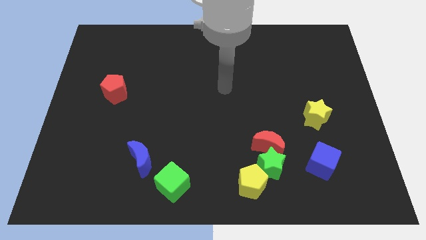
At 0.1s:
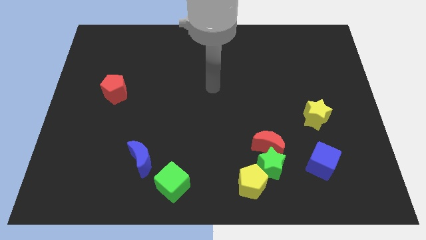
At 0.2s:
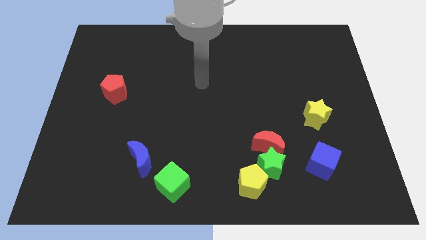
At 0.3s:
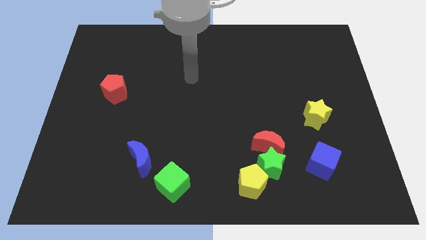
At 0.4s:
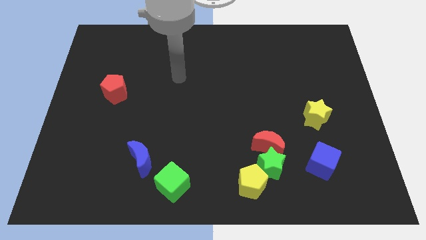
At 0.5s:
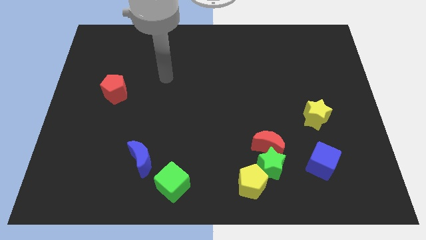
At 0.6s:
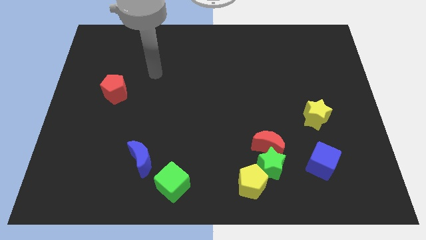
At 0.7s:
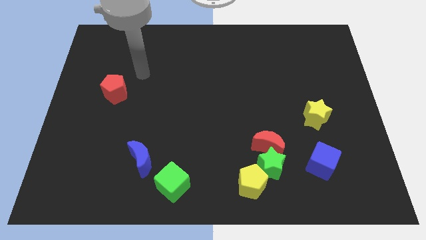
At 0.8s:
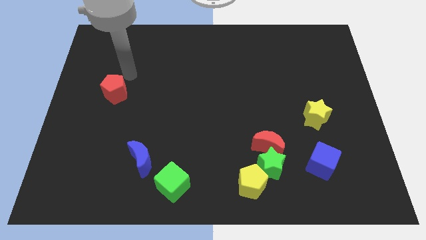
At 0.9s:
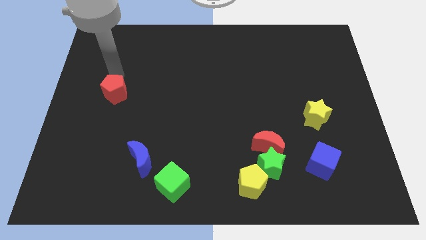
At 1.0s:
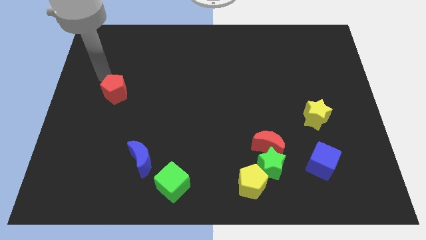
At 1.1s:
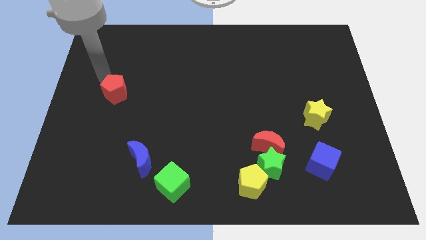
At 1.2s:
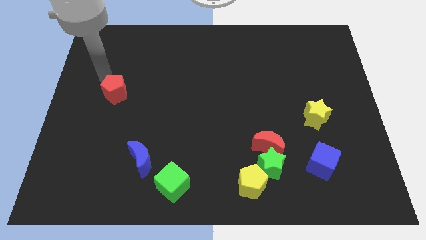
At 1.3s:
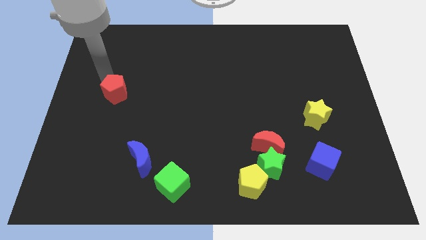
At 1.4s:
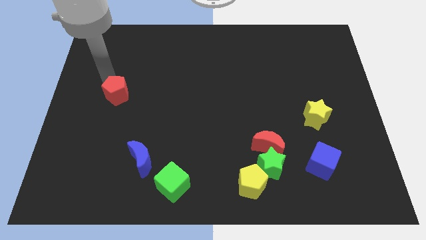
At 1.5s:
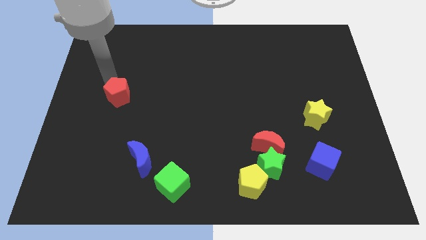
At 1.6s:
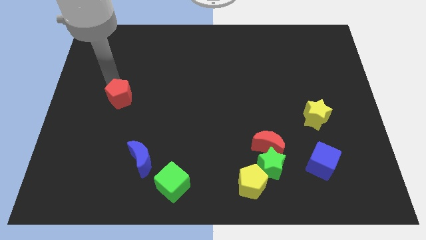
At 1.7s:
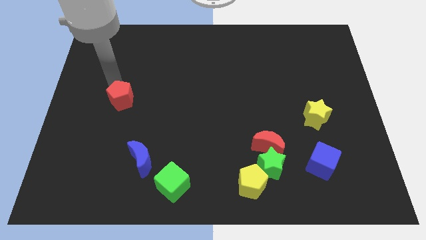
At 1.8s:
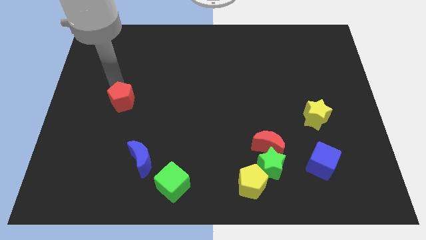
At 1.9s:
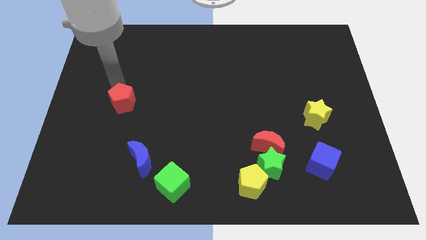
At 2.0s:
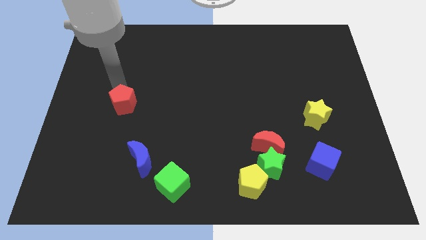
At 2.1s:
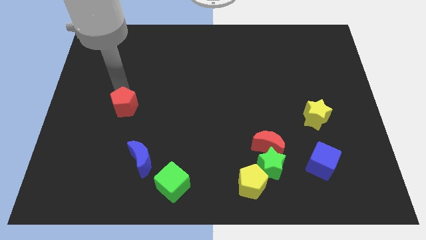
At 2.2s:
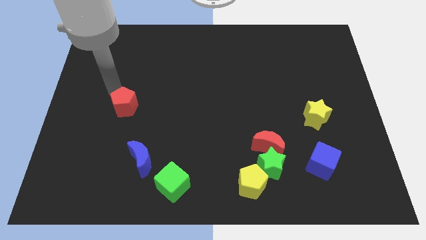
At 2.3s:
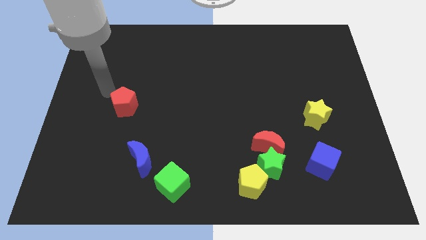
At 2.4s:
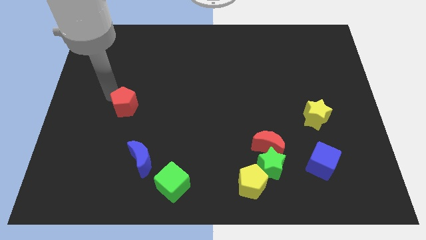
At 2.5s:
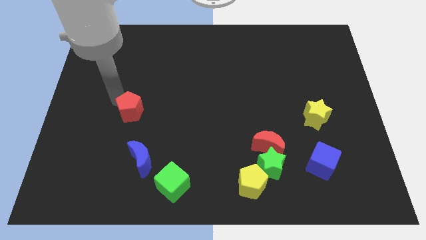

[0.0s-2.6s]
slide the red pentagon down and to the right diagonally a bit

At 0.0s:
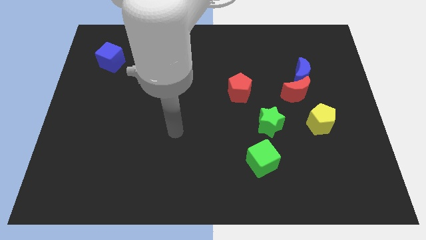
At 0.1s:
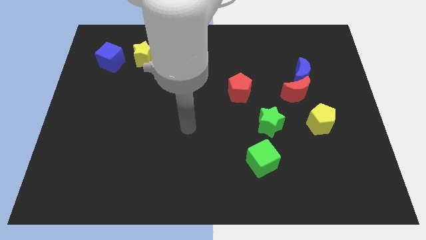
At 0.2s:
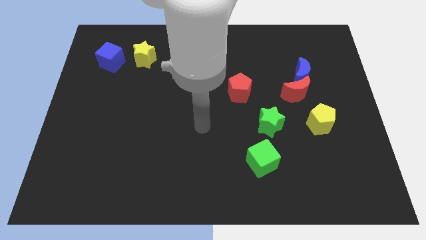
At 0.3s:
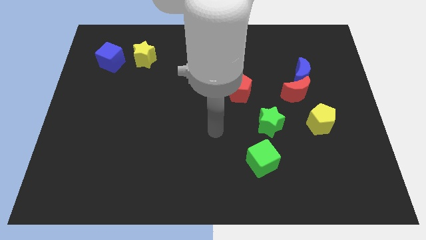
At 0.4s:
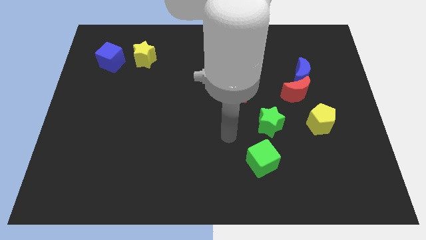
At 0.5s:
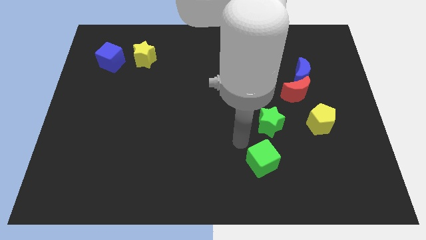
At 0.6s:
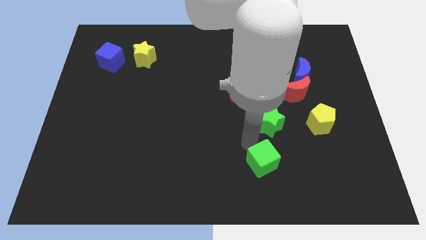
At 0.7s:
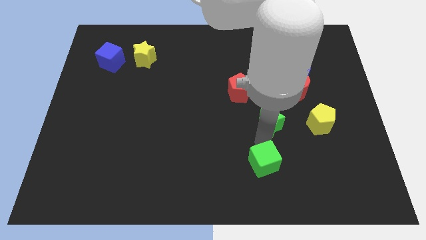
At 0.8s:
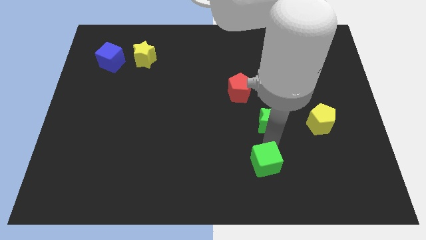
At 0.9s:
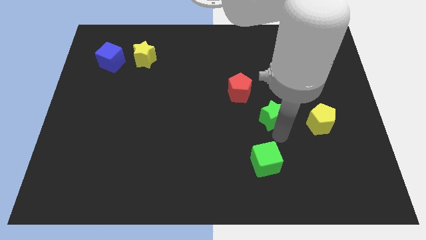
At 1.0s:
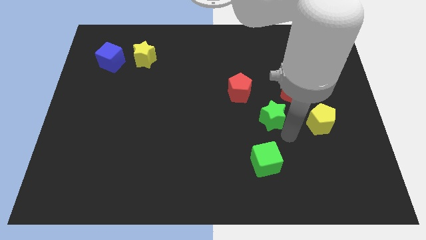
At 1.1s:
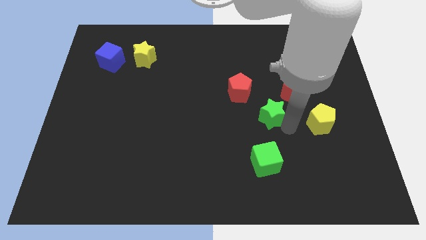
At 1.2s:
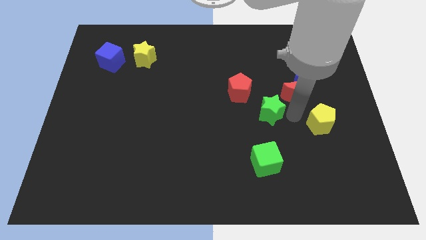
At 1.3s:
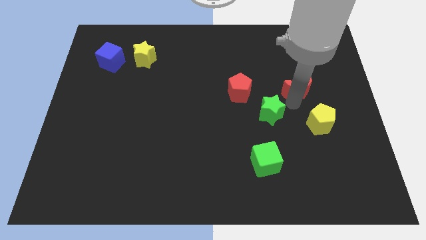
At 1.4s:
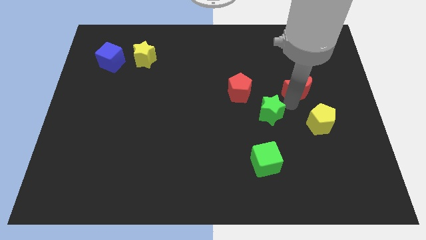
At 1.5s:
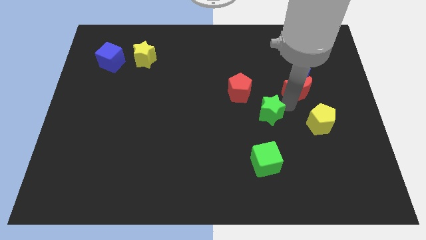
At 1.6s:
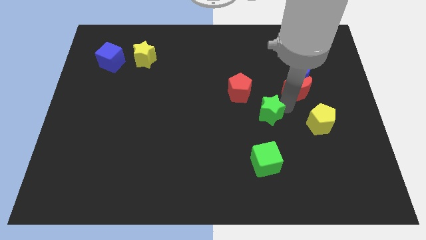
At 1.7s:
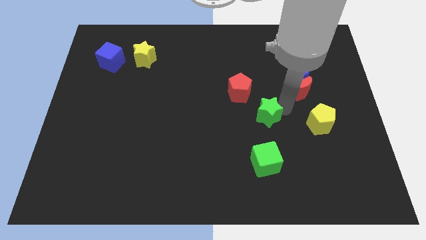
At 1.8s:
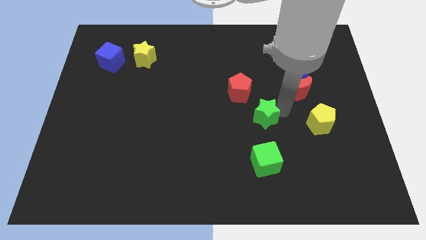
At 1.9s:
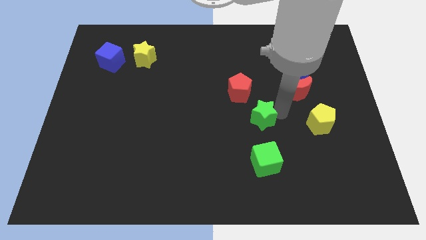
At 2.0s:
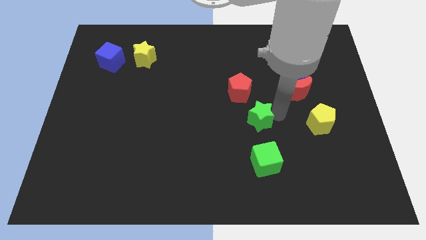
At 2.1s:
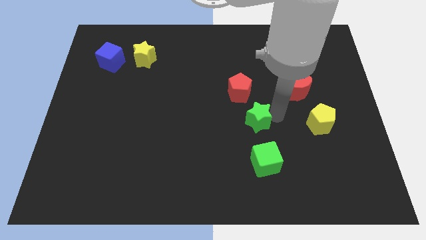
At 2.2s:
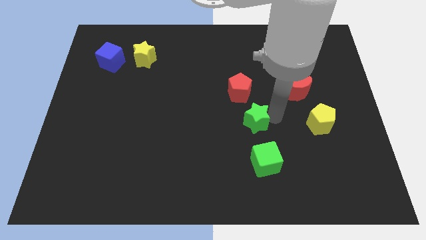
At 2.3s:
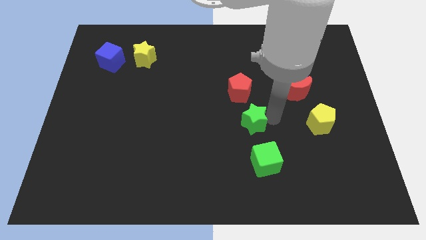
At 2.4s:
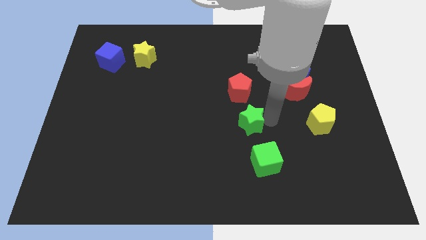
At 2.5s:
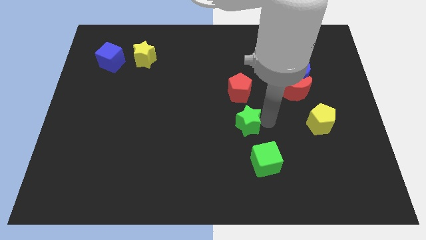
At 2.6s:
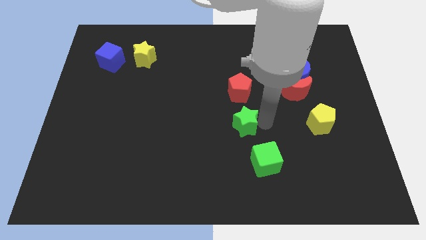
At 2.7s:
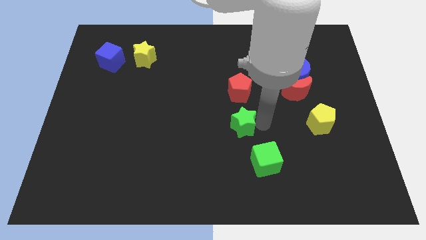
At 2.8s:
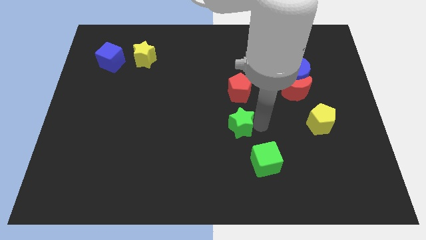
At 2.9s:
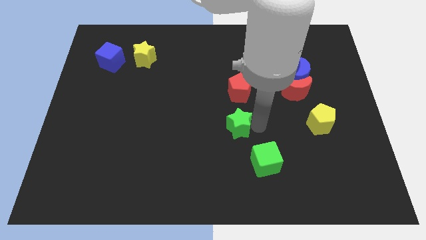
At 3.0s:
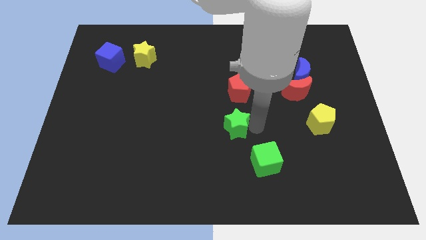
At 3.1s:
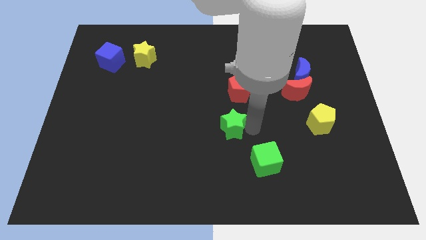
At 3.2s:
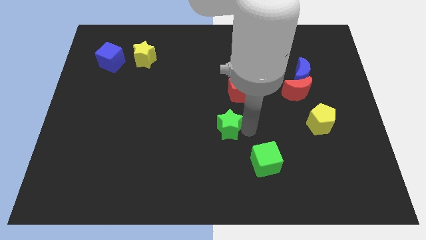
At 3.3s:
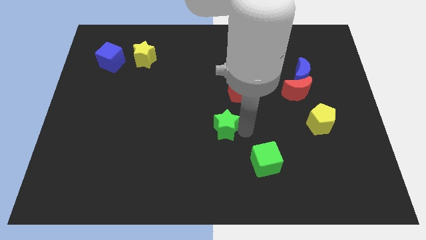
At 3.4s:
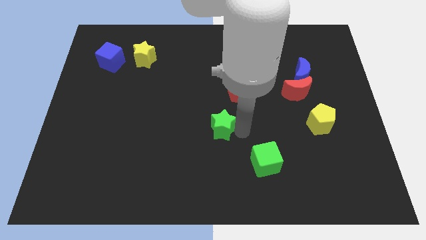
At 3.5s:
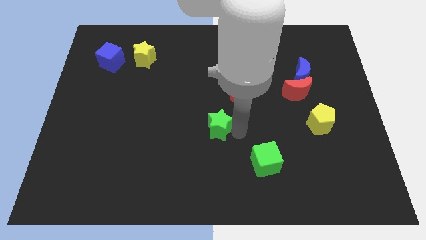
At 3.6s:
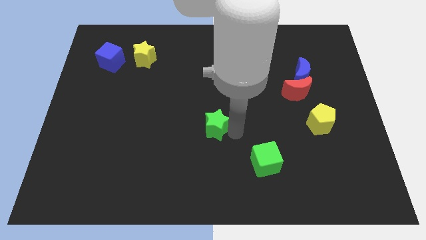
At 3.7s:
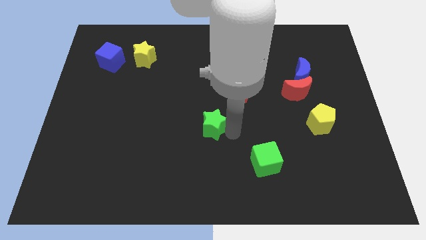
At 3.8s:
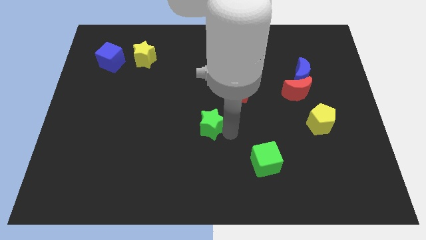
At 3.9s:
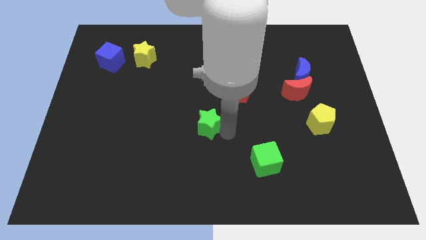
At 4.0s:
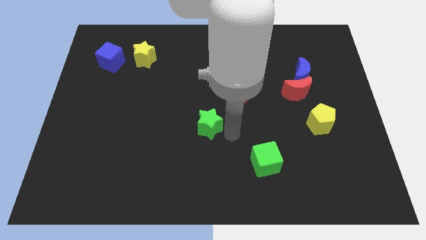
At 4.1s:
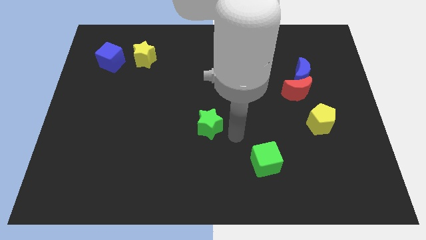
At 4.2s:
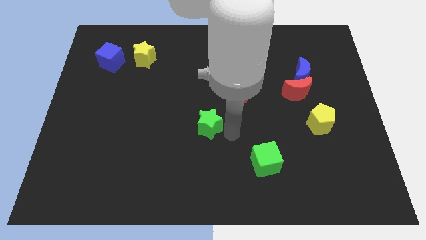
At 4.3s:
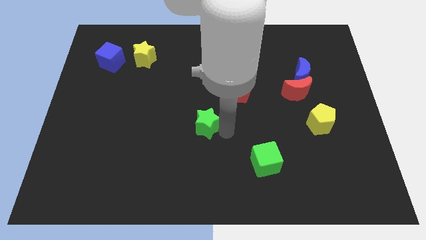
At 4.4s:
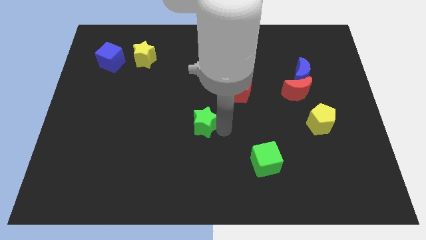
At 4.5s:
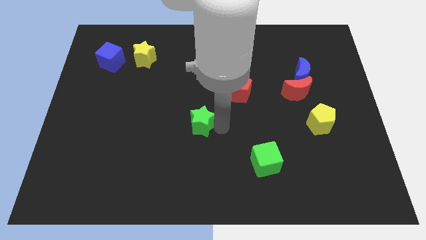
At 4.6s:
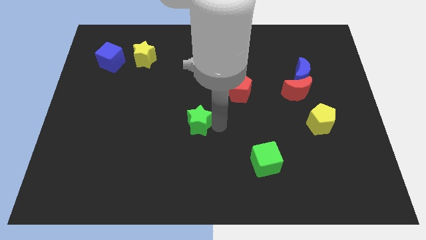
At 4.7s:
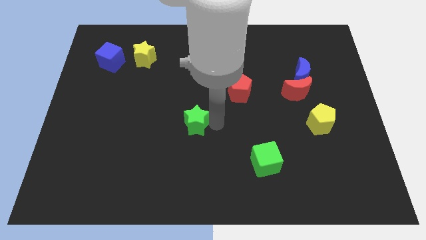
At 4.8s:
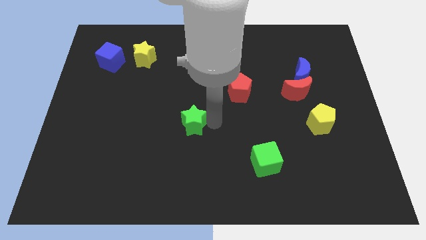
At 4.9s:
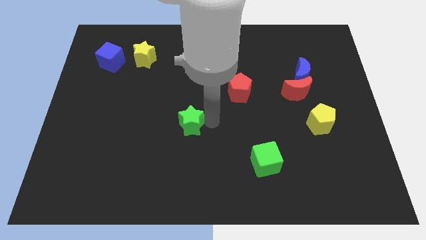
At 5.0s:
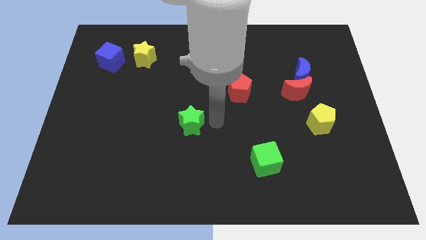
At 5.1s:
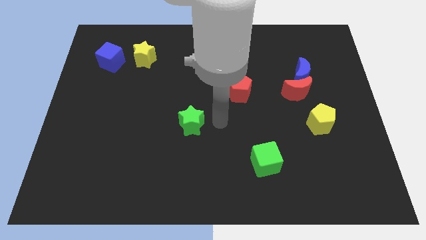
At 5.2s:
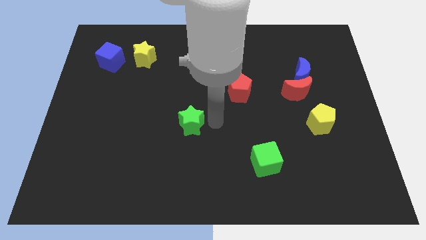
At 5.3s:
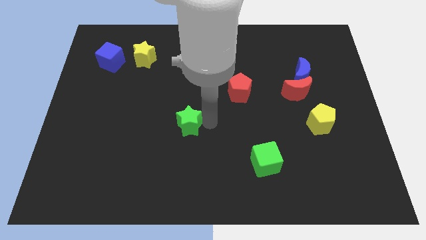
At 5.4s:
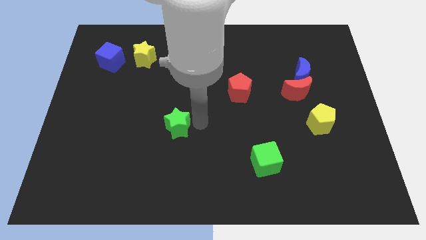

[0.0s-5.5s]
slide the green star left

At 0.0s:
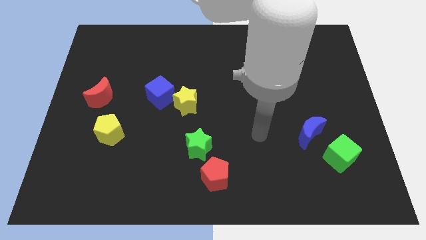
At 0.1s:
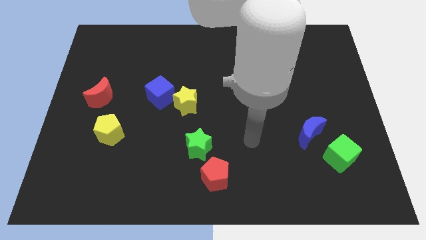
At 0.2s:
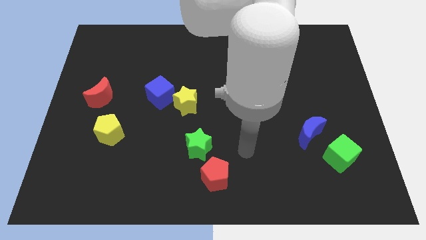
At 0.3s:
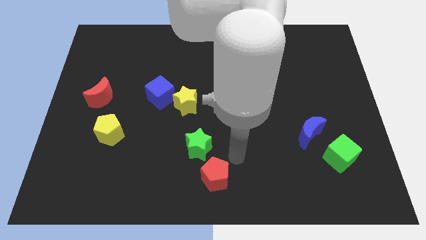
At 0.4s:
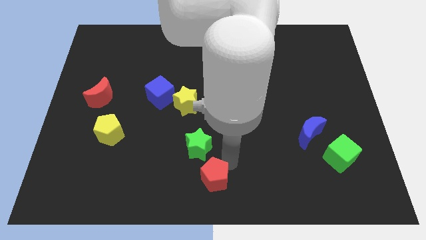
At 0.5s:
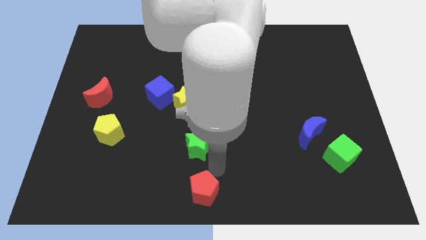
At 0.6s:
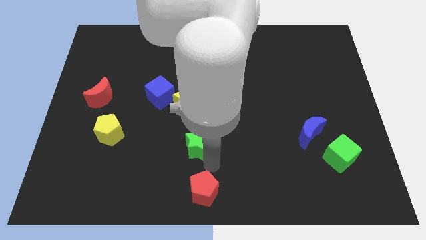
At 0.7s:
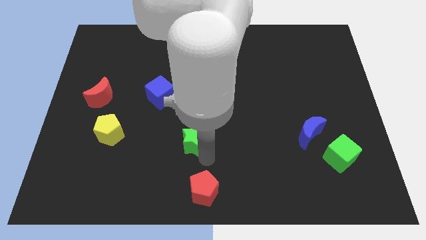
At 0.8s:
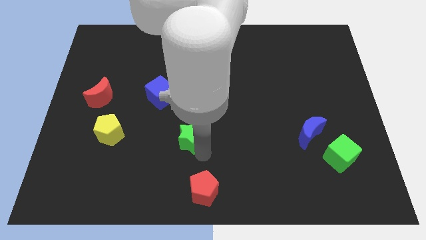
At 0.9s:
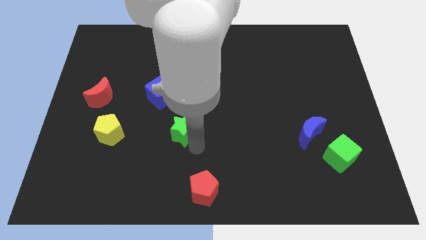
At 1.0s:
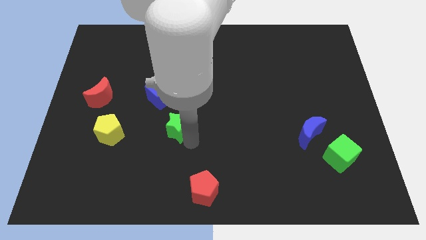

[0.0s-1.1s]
push the green star a little bit upwards and to the left
